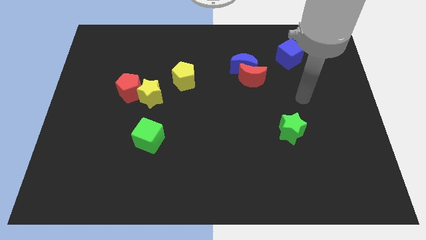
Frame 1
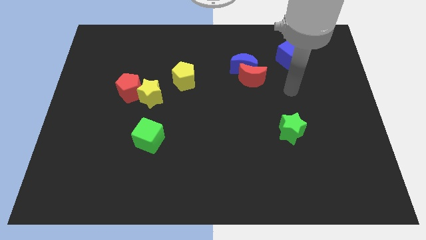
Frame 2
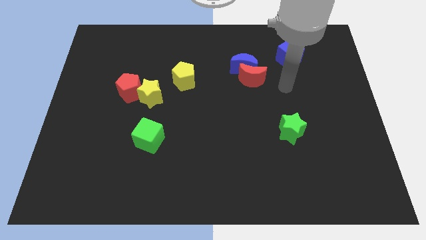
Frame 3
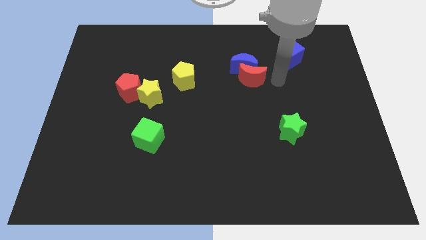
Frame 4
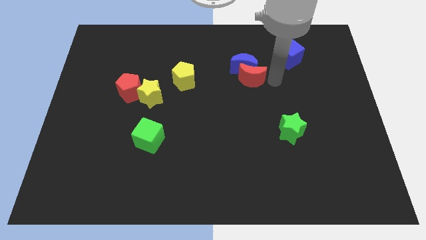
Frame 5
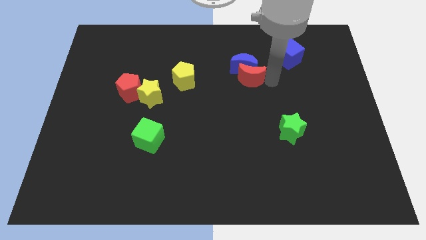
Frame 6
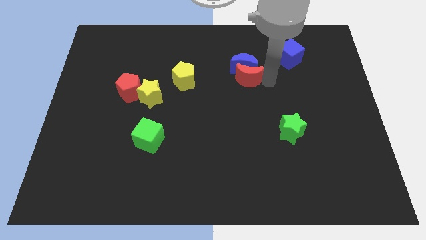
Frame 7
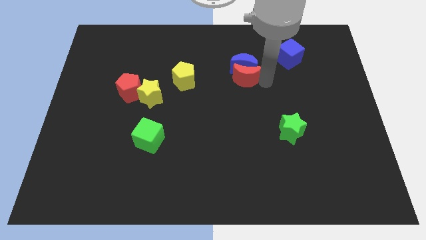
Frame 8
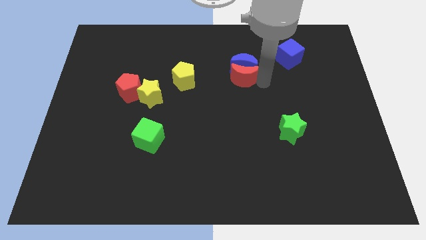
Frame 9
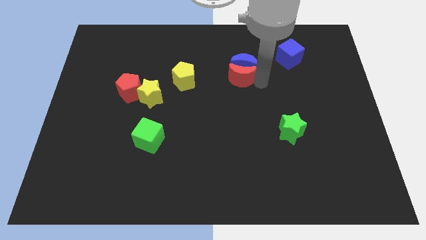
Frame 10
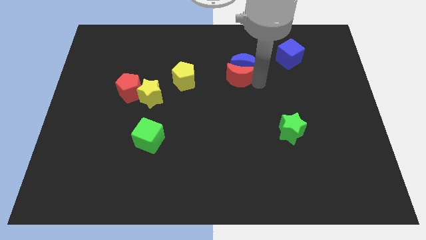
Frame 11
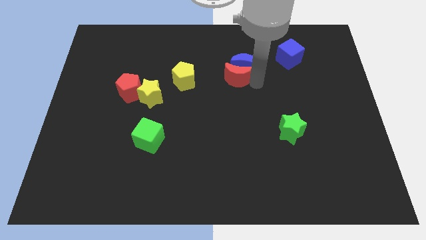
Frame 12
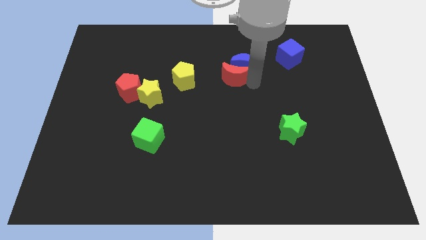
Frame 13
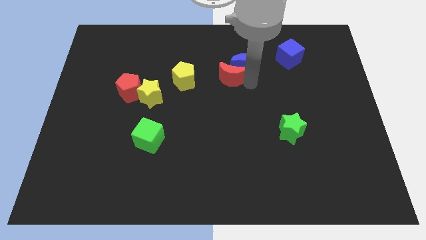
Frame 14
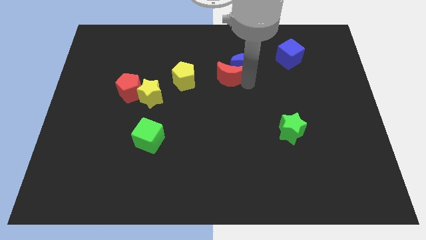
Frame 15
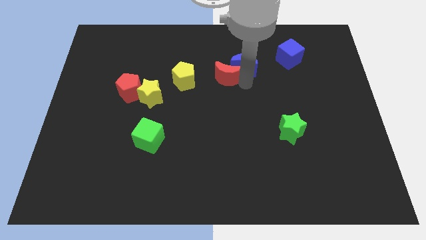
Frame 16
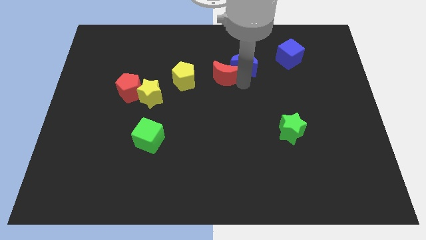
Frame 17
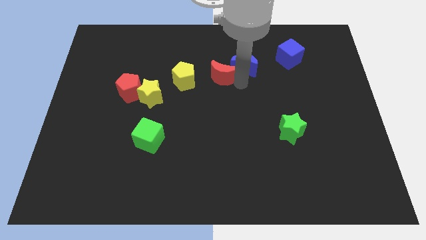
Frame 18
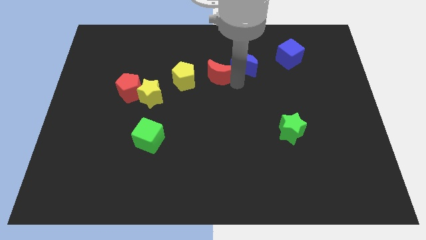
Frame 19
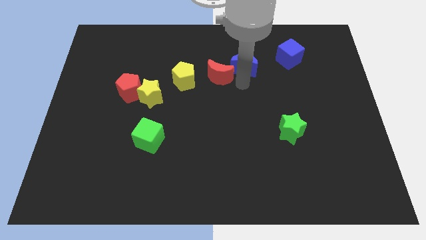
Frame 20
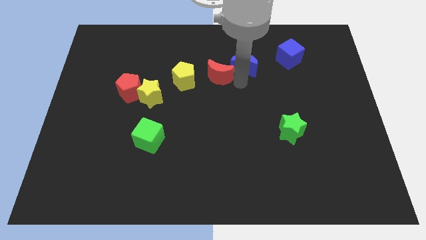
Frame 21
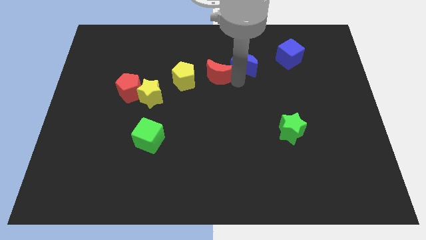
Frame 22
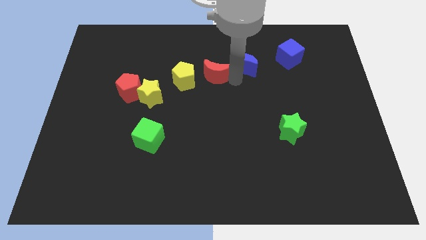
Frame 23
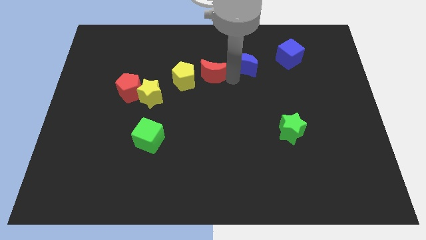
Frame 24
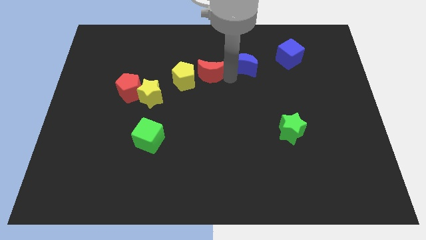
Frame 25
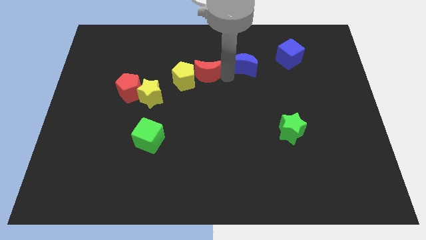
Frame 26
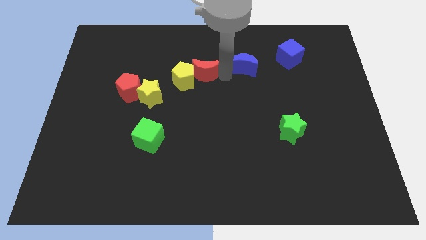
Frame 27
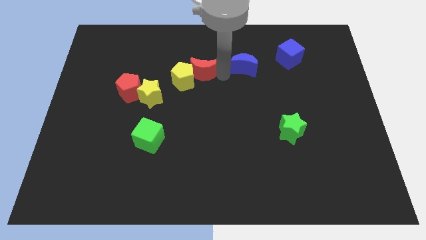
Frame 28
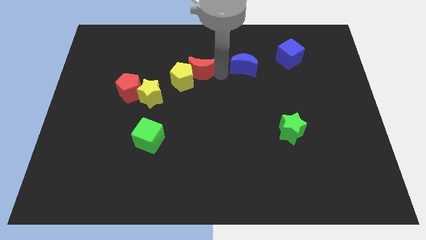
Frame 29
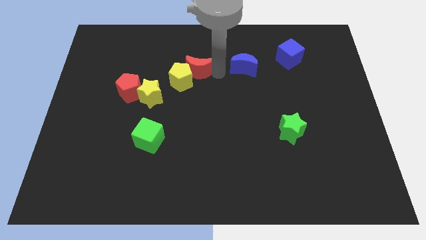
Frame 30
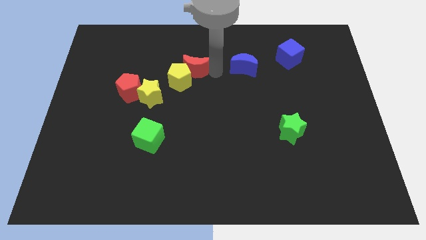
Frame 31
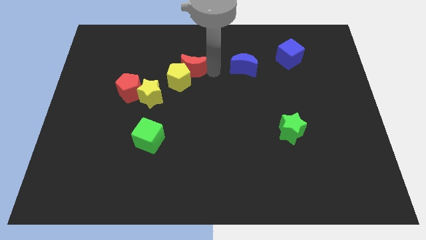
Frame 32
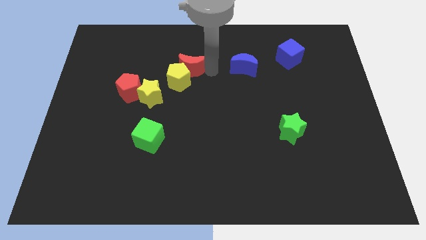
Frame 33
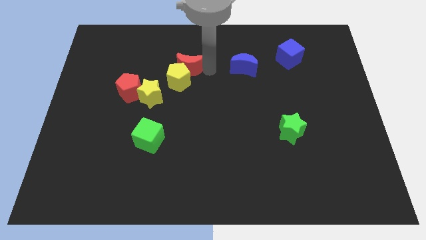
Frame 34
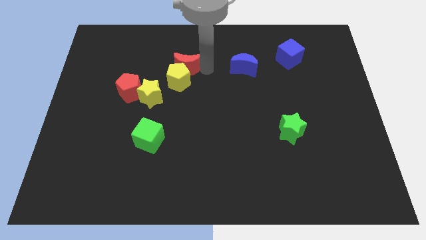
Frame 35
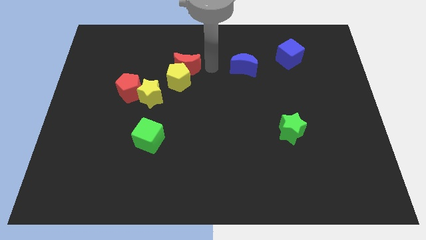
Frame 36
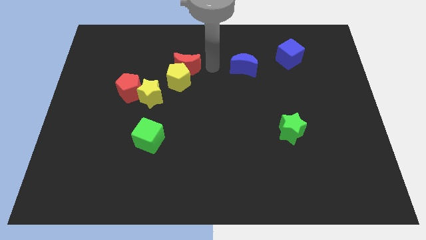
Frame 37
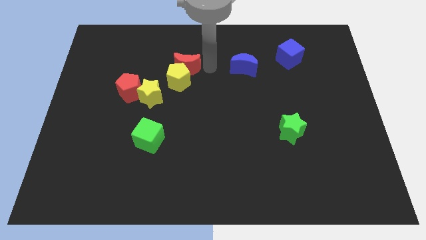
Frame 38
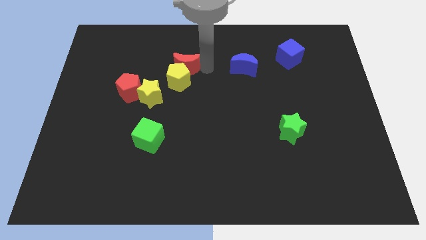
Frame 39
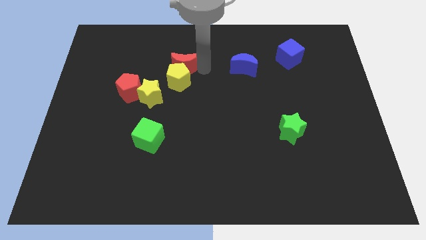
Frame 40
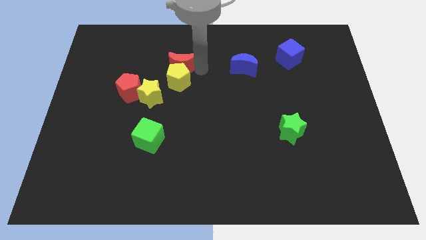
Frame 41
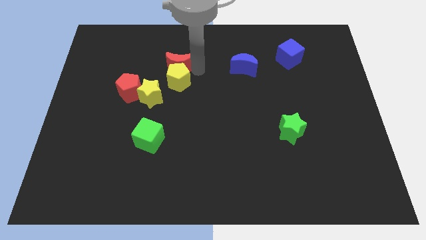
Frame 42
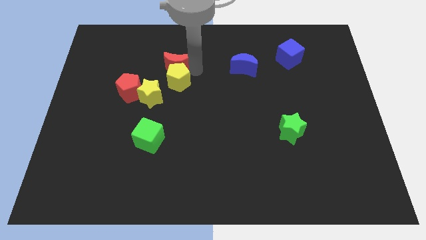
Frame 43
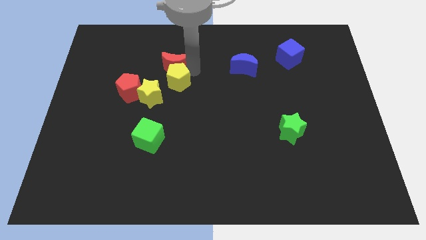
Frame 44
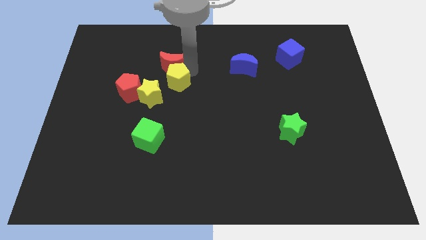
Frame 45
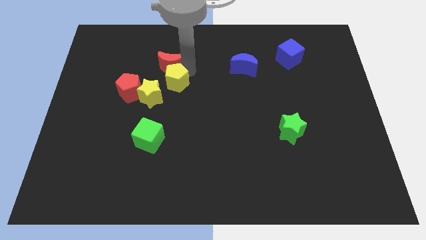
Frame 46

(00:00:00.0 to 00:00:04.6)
move the red moon left

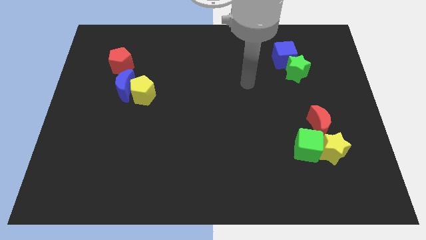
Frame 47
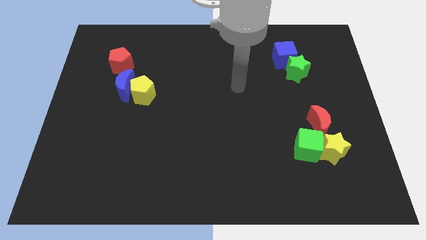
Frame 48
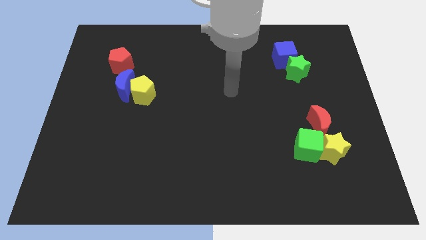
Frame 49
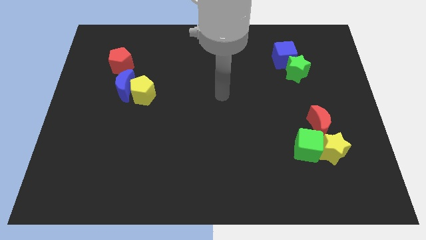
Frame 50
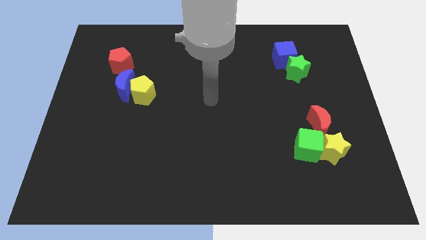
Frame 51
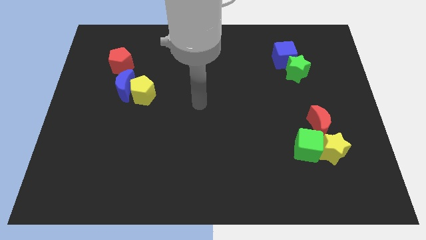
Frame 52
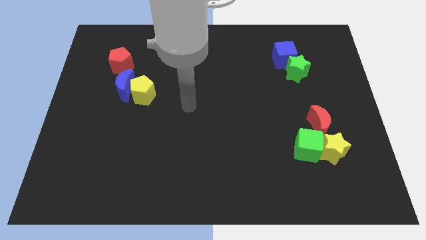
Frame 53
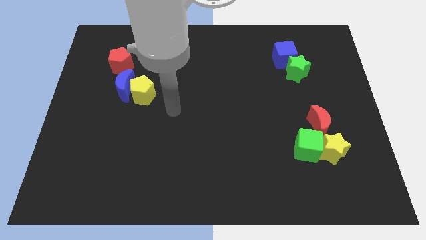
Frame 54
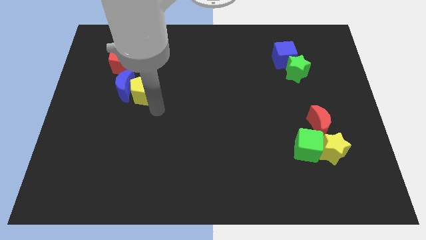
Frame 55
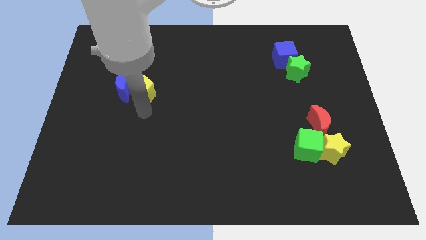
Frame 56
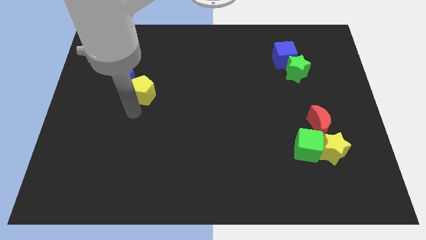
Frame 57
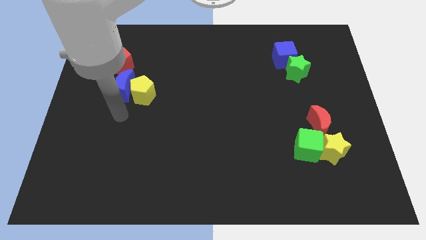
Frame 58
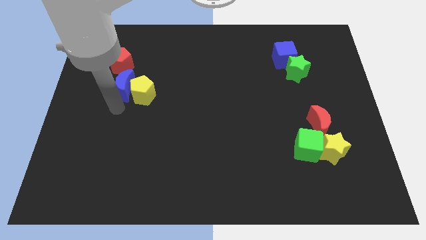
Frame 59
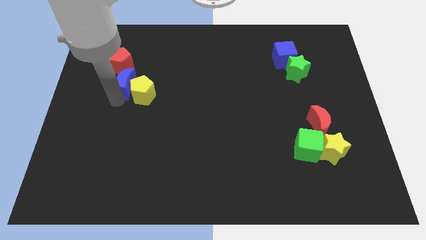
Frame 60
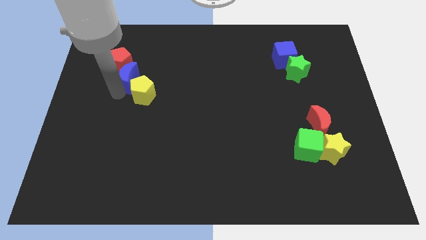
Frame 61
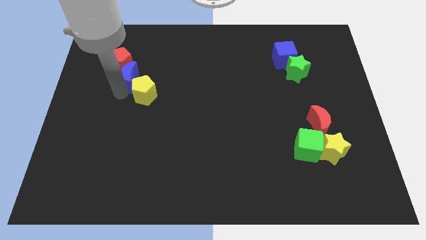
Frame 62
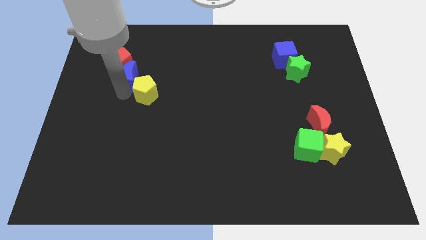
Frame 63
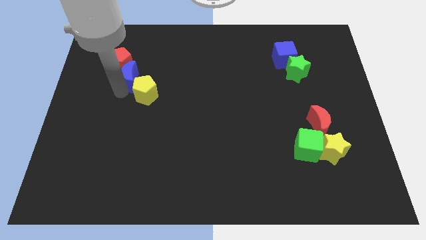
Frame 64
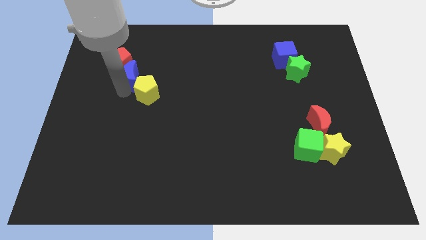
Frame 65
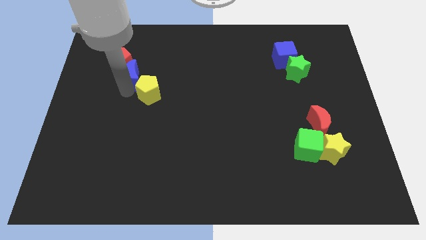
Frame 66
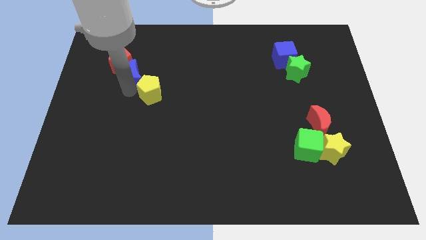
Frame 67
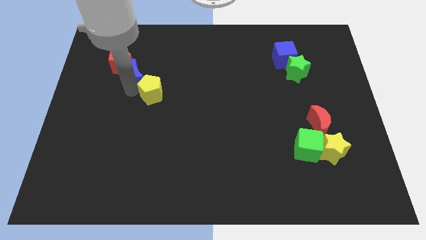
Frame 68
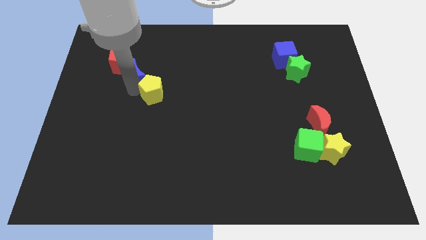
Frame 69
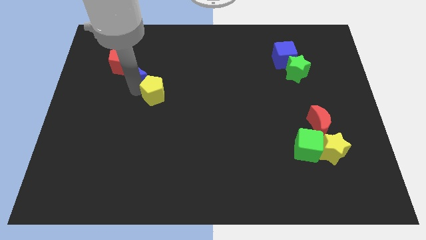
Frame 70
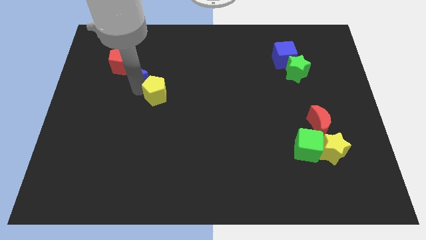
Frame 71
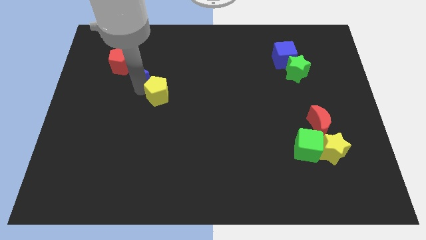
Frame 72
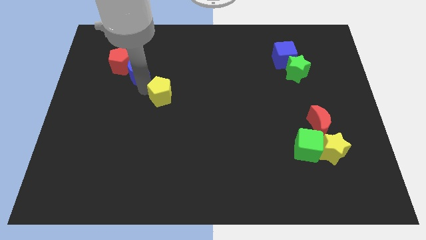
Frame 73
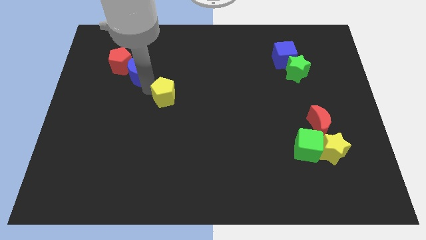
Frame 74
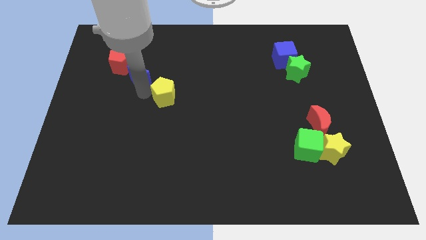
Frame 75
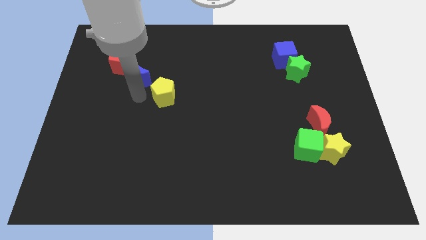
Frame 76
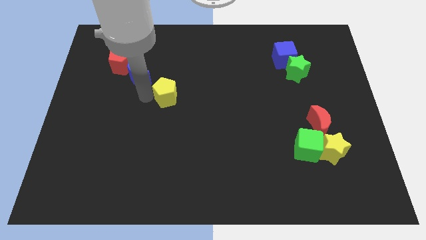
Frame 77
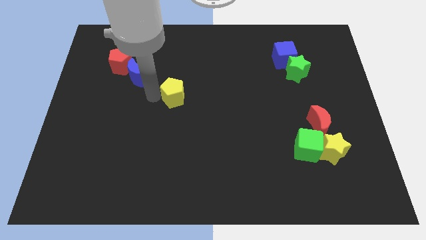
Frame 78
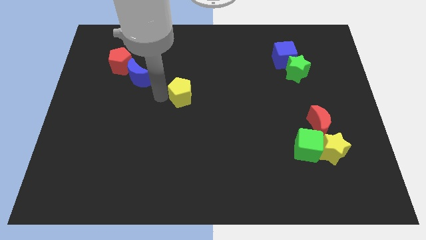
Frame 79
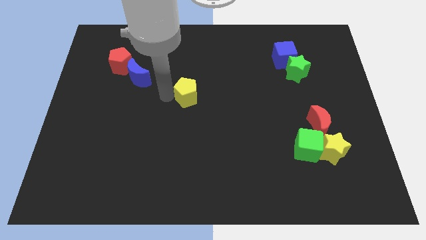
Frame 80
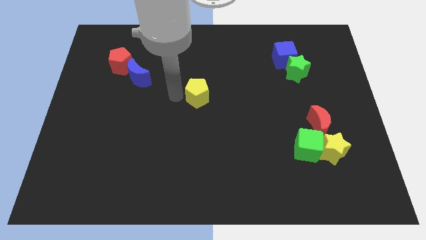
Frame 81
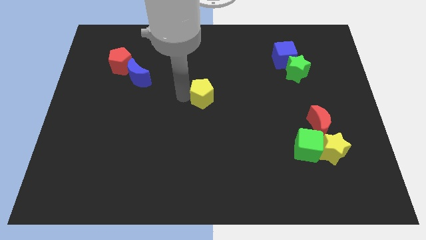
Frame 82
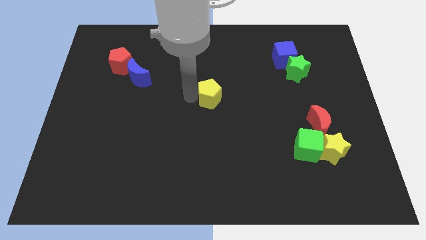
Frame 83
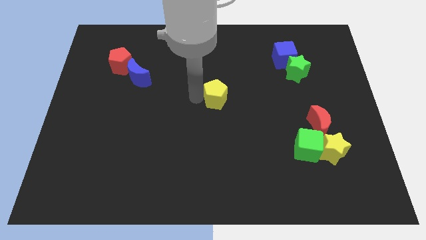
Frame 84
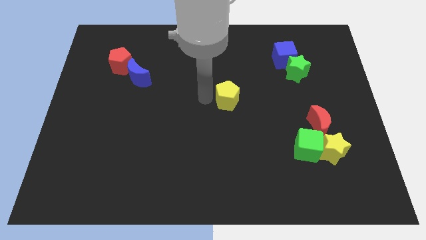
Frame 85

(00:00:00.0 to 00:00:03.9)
push the yellow pentagon right
